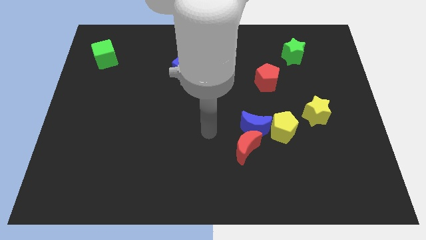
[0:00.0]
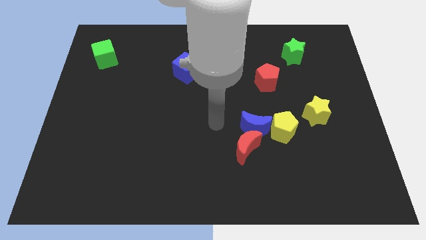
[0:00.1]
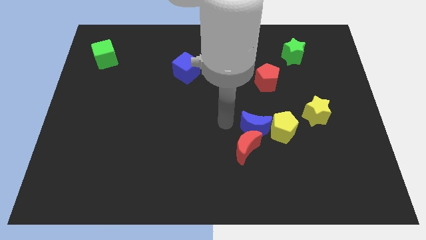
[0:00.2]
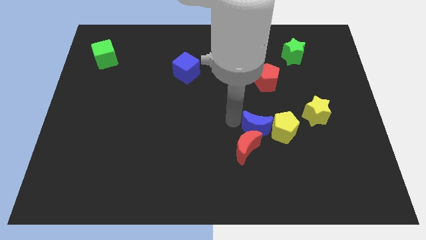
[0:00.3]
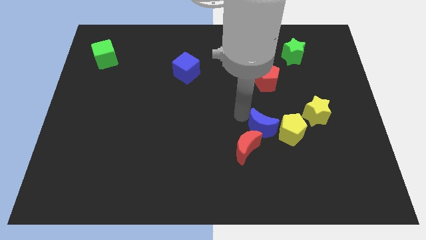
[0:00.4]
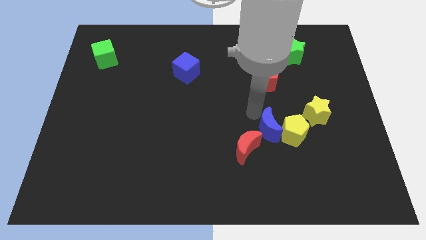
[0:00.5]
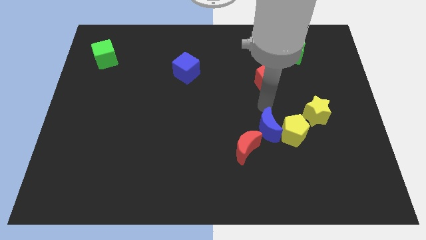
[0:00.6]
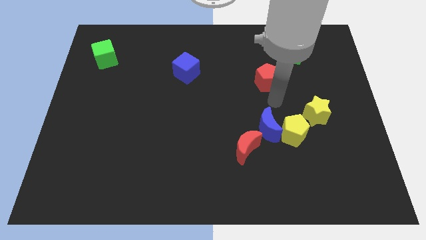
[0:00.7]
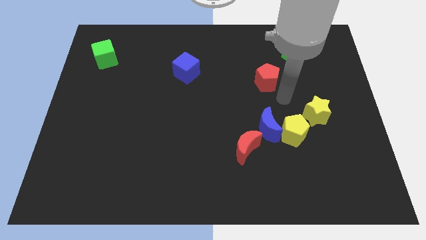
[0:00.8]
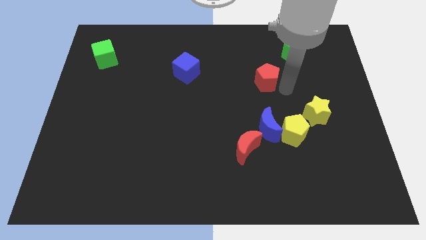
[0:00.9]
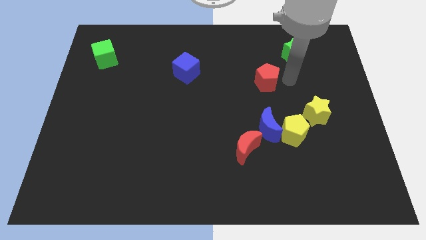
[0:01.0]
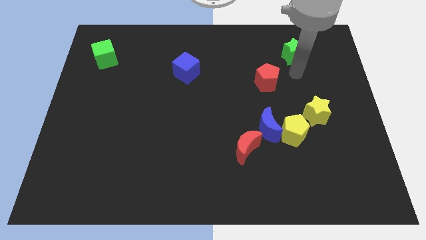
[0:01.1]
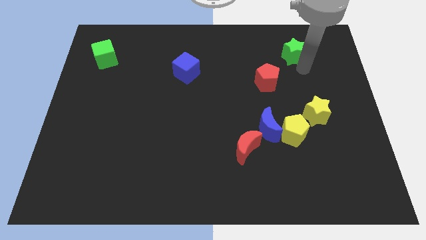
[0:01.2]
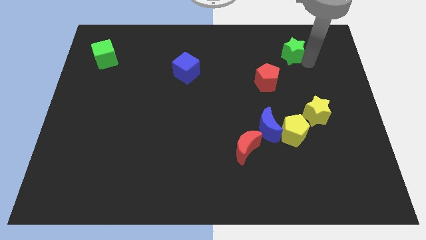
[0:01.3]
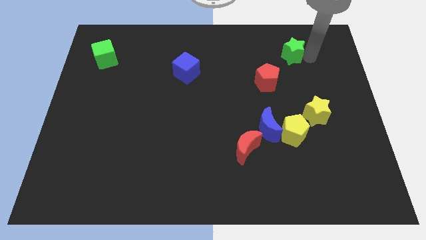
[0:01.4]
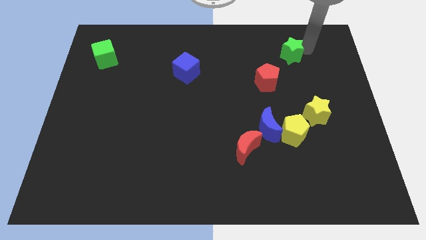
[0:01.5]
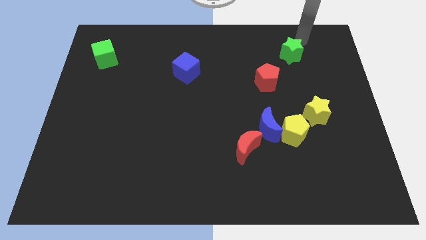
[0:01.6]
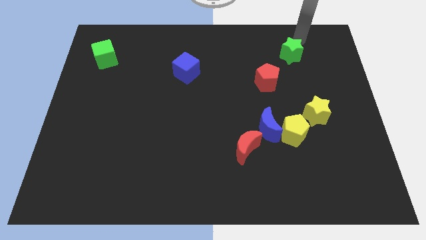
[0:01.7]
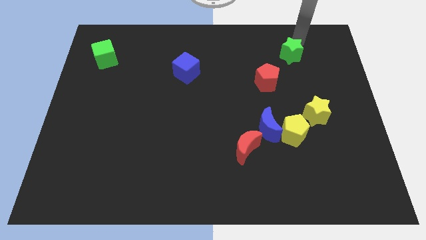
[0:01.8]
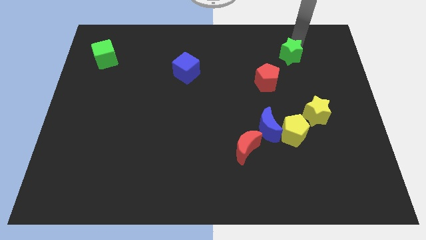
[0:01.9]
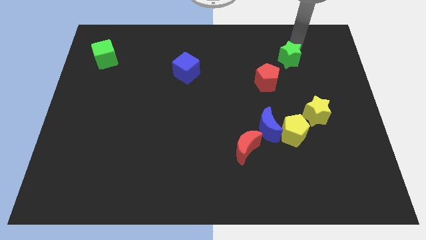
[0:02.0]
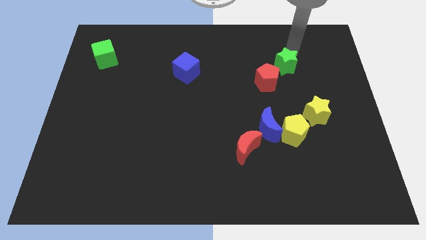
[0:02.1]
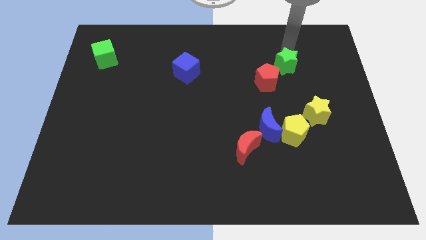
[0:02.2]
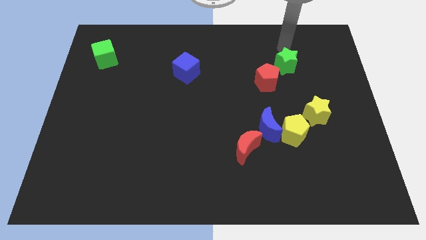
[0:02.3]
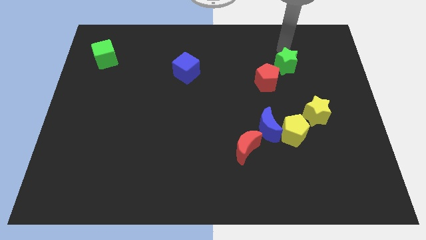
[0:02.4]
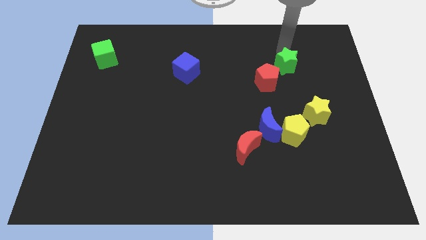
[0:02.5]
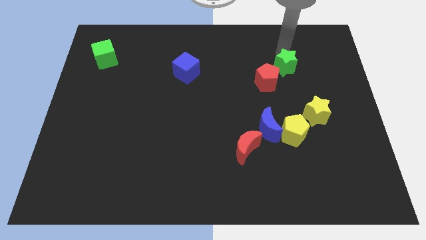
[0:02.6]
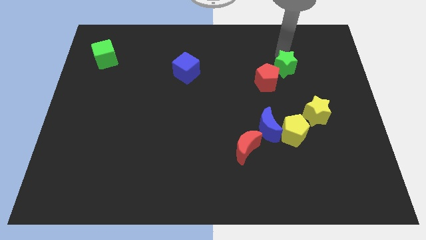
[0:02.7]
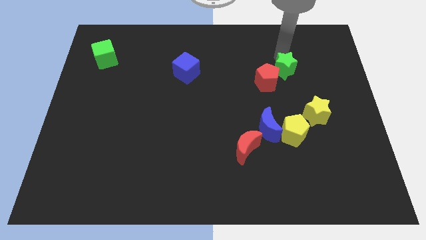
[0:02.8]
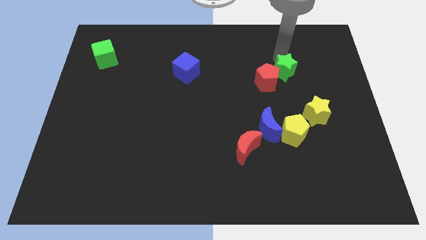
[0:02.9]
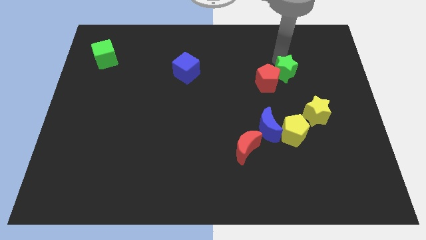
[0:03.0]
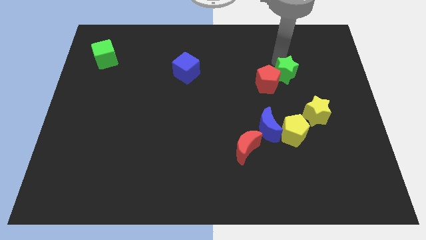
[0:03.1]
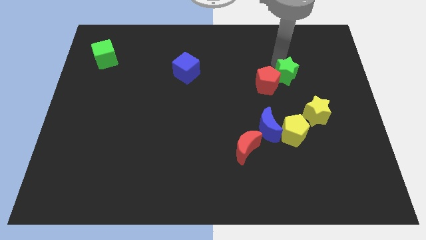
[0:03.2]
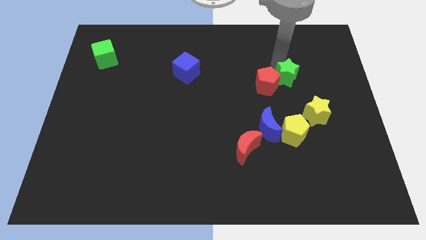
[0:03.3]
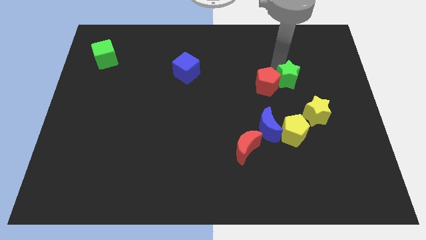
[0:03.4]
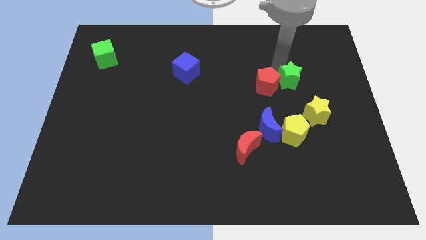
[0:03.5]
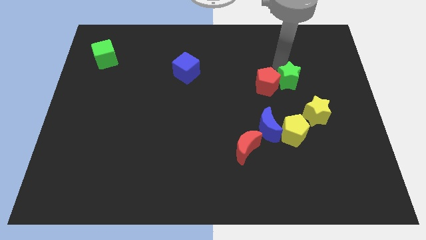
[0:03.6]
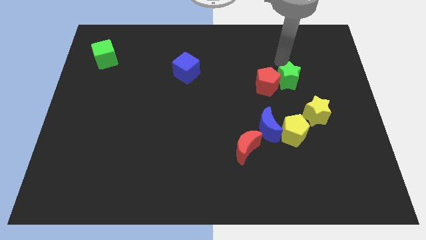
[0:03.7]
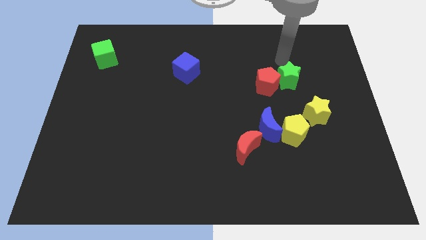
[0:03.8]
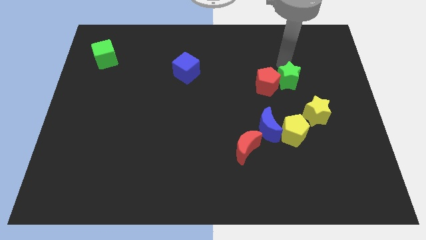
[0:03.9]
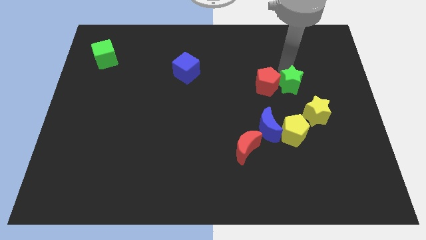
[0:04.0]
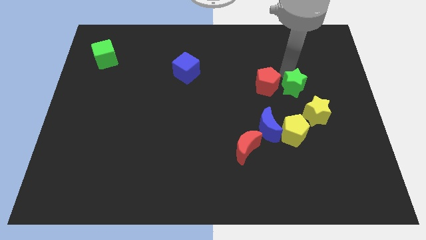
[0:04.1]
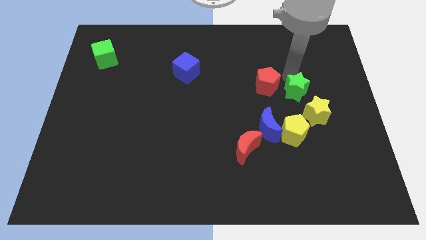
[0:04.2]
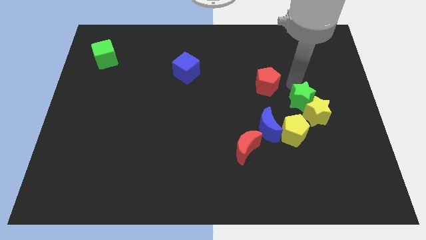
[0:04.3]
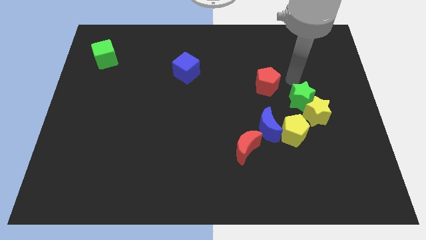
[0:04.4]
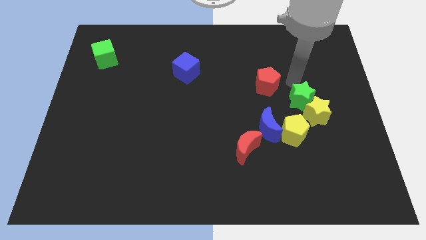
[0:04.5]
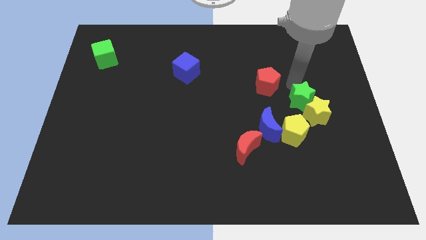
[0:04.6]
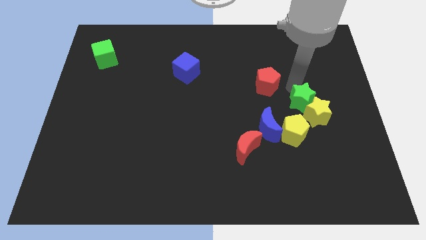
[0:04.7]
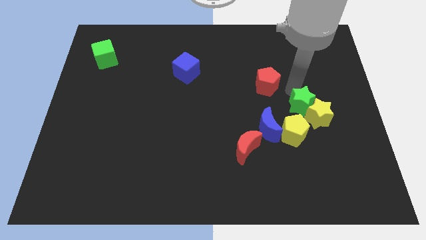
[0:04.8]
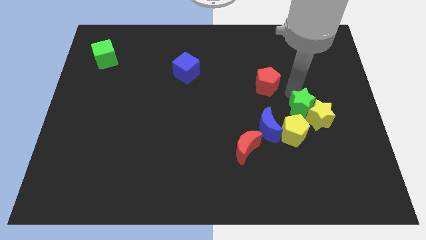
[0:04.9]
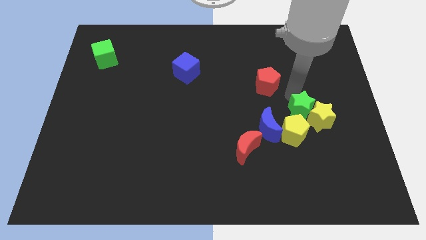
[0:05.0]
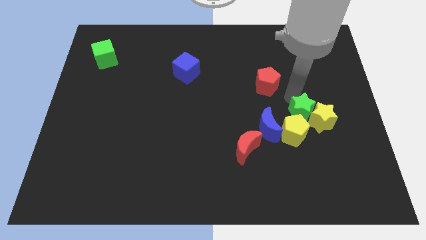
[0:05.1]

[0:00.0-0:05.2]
push the green star to the right side of the blue moon

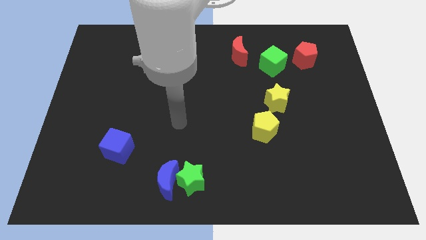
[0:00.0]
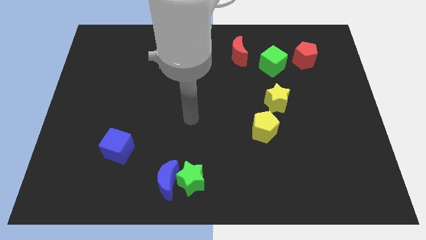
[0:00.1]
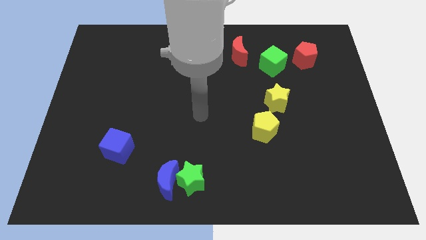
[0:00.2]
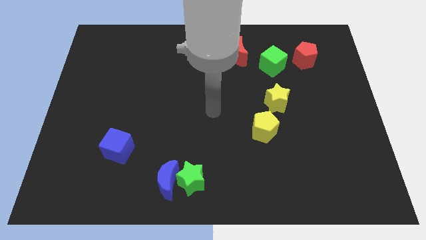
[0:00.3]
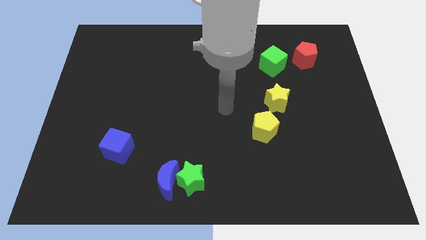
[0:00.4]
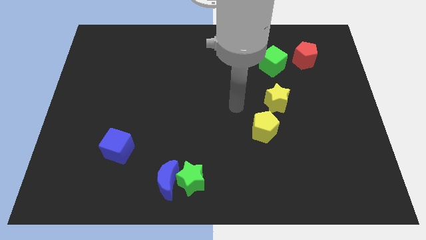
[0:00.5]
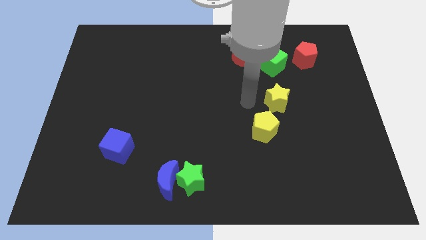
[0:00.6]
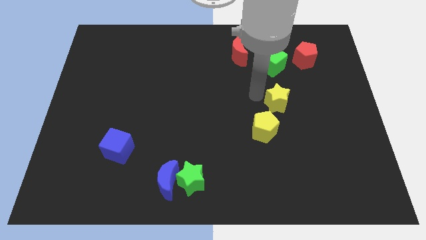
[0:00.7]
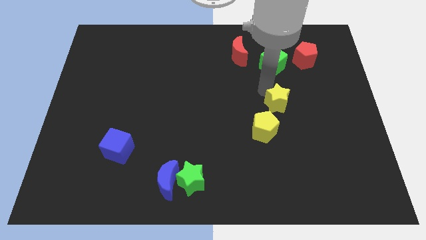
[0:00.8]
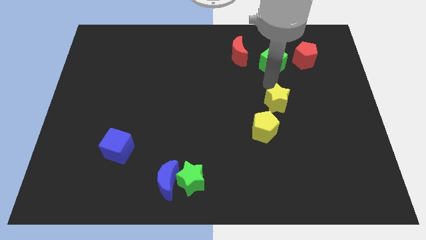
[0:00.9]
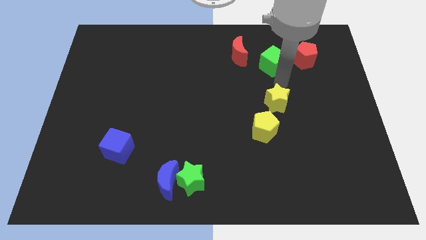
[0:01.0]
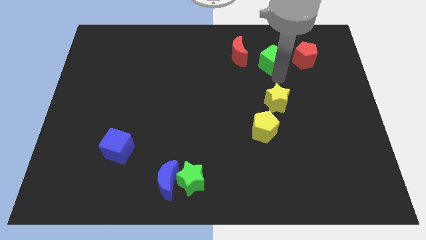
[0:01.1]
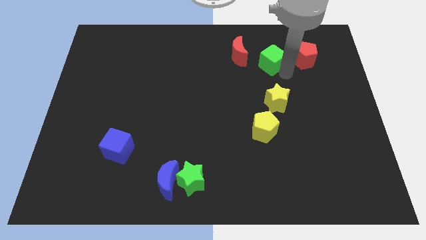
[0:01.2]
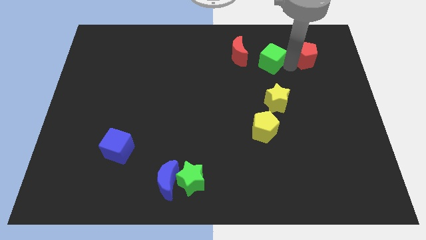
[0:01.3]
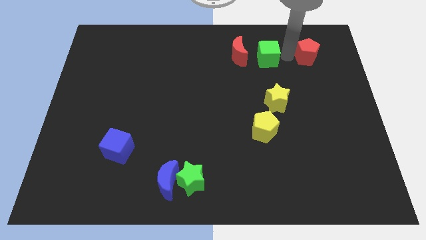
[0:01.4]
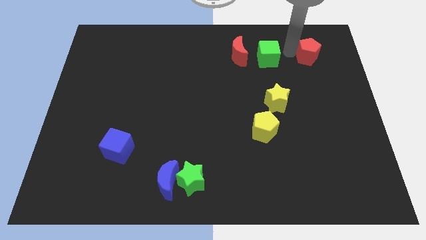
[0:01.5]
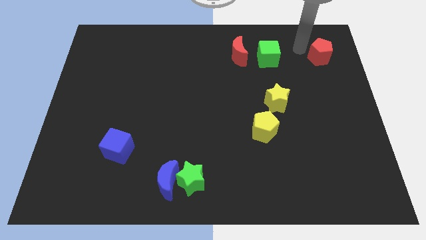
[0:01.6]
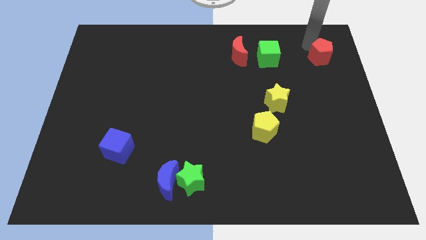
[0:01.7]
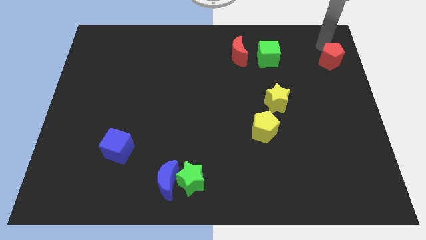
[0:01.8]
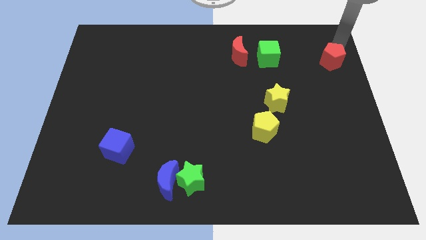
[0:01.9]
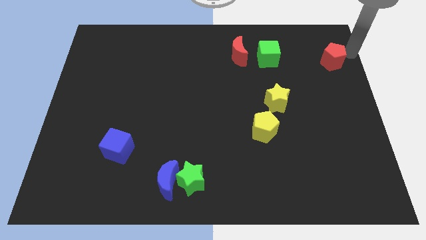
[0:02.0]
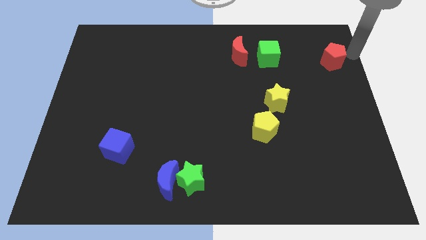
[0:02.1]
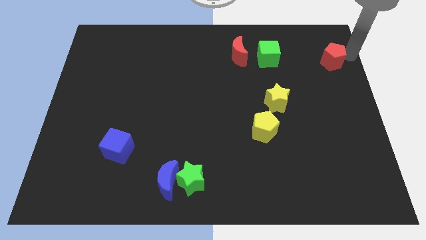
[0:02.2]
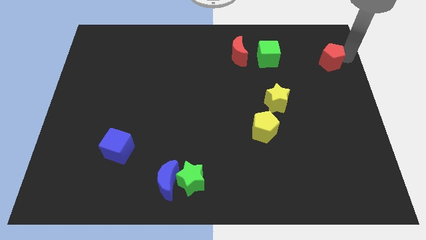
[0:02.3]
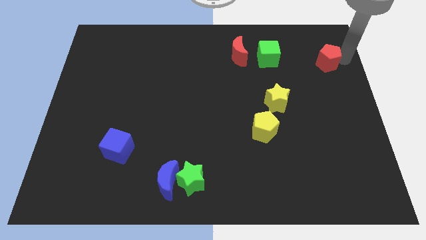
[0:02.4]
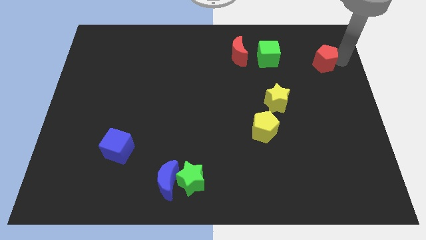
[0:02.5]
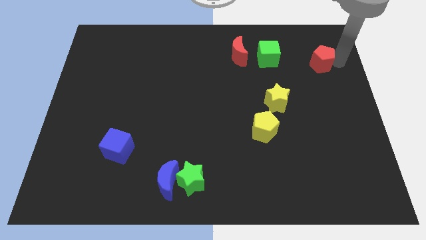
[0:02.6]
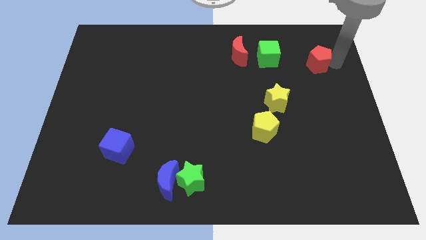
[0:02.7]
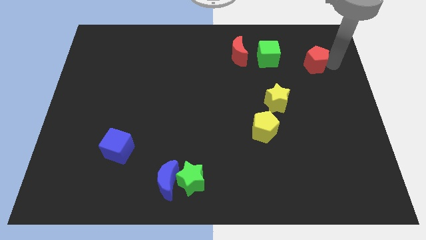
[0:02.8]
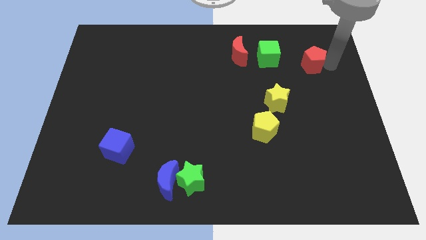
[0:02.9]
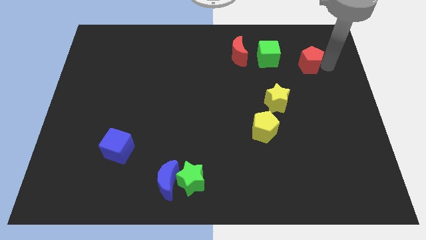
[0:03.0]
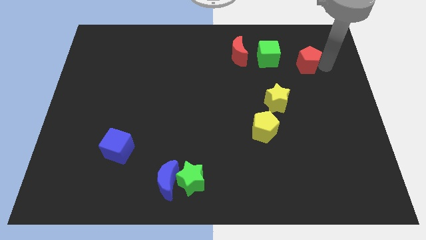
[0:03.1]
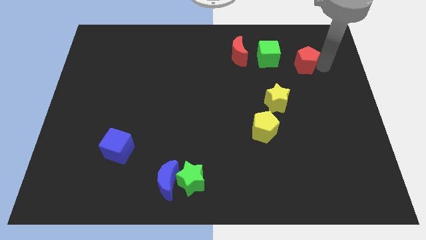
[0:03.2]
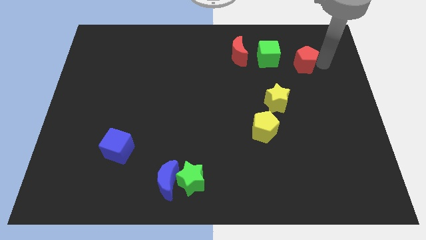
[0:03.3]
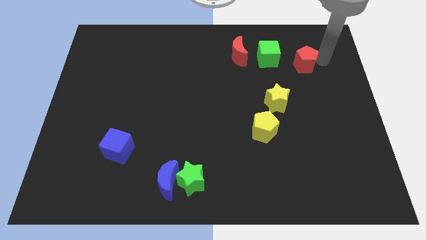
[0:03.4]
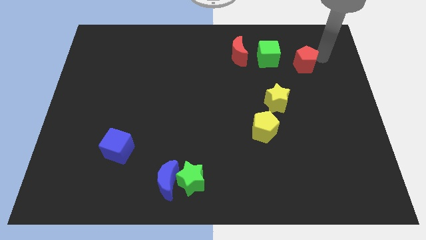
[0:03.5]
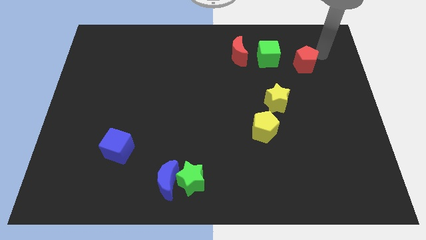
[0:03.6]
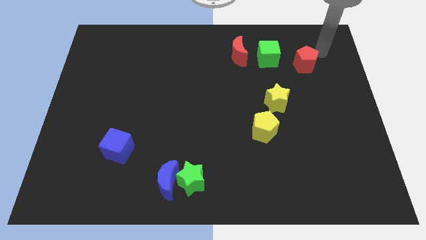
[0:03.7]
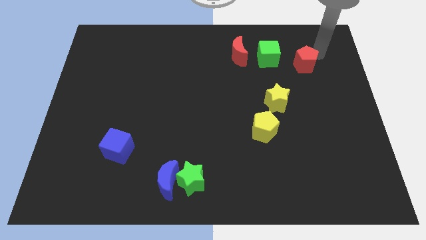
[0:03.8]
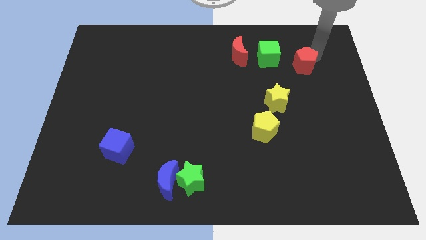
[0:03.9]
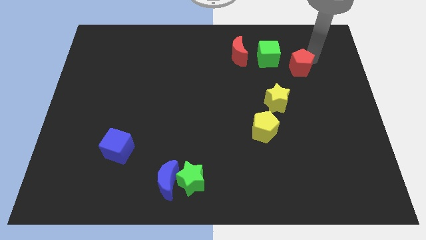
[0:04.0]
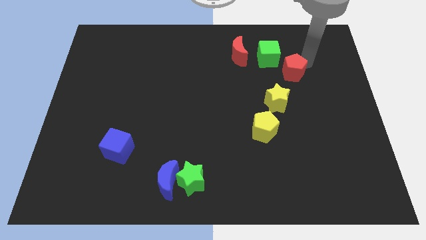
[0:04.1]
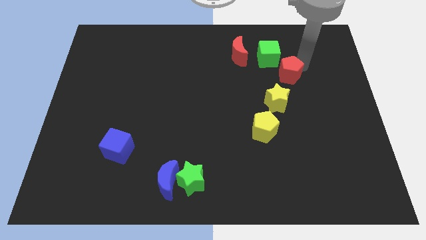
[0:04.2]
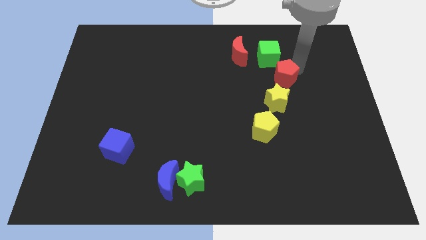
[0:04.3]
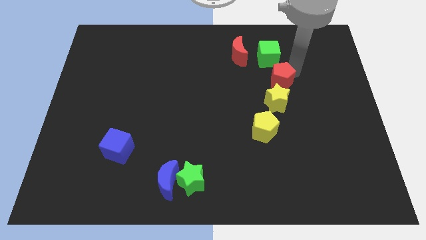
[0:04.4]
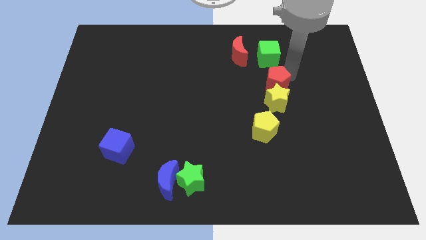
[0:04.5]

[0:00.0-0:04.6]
push the red pentagon diagonally up and to the left of the yellow star
